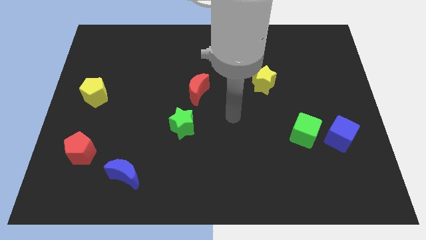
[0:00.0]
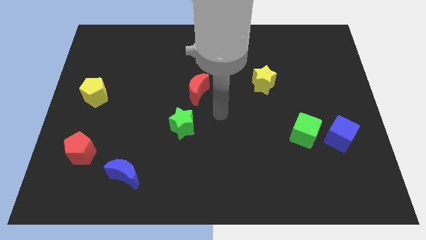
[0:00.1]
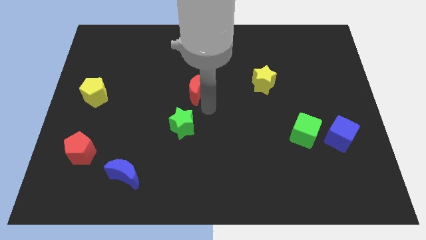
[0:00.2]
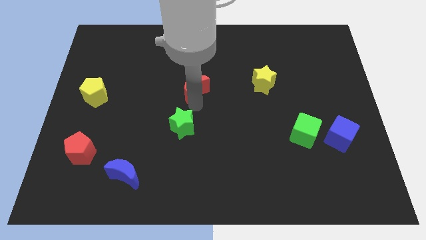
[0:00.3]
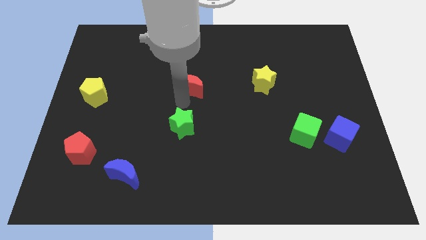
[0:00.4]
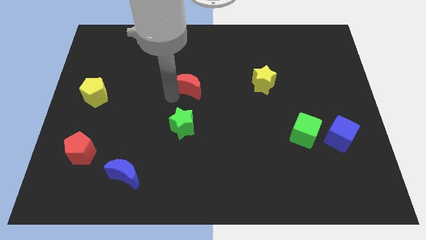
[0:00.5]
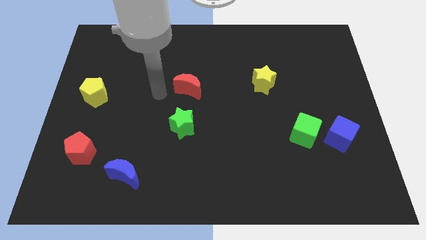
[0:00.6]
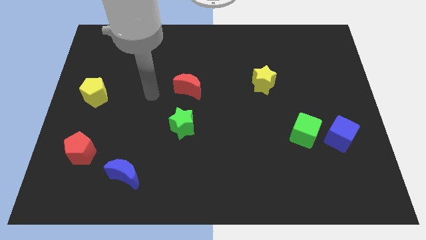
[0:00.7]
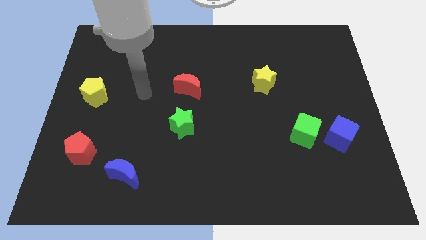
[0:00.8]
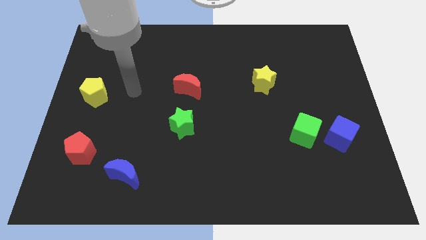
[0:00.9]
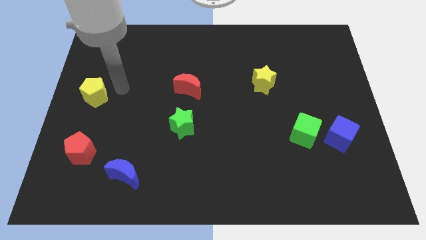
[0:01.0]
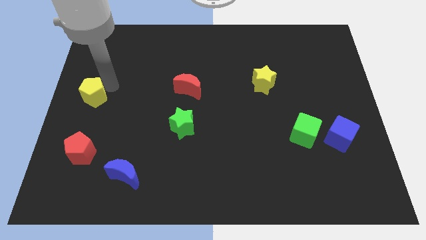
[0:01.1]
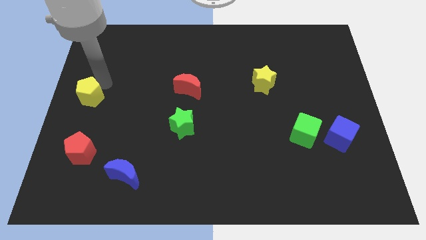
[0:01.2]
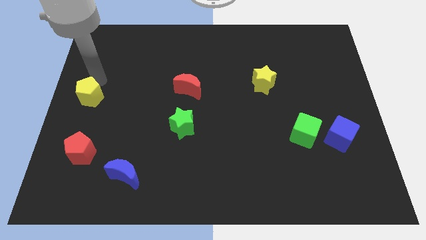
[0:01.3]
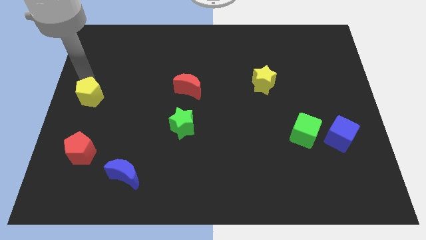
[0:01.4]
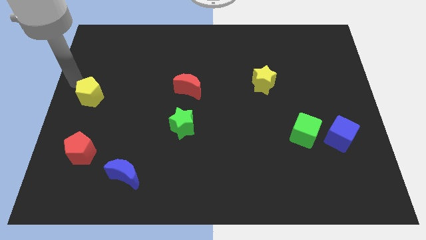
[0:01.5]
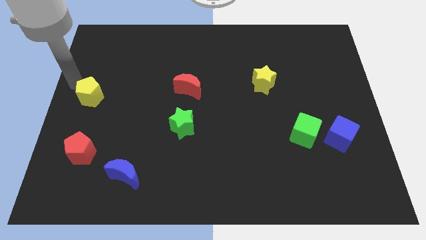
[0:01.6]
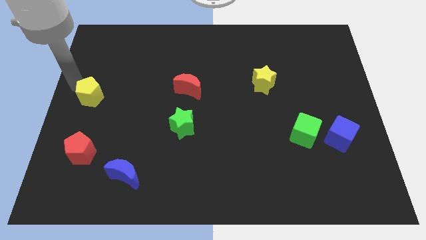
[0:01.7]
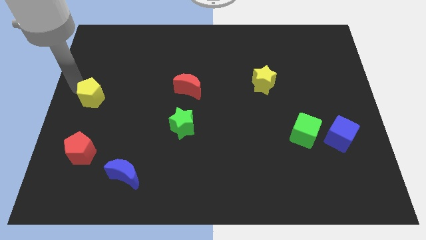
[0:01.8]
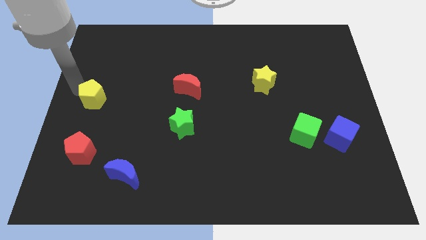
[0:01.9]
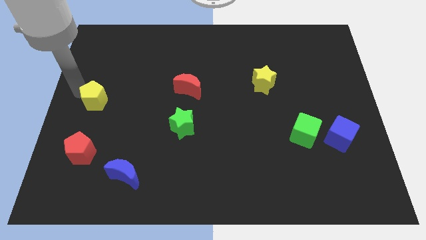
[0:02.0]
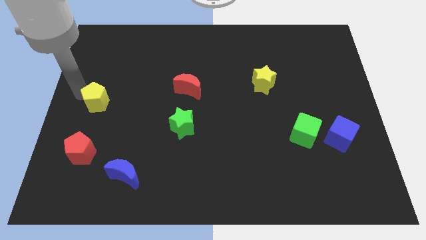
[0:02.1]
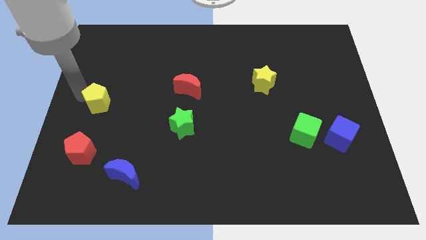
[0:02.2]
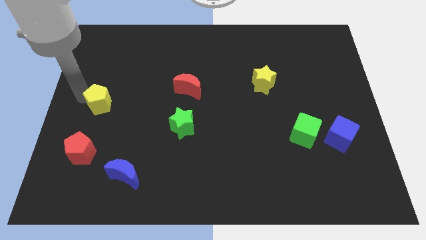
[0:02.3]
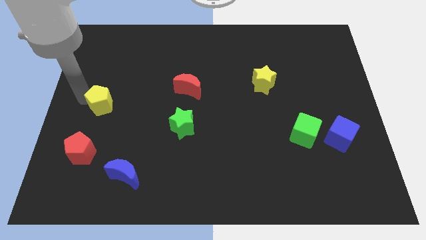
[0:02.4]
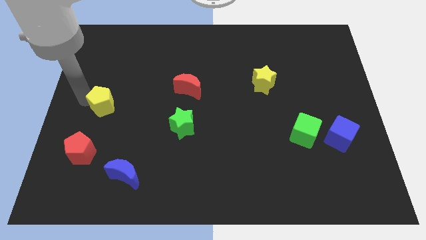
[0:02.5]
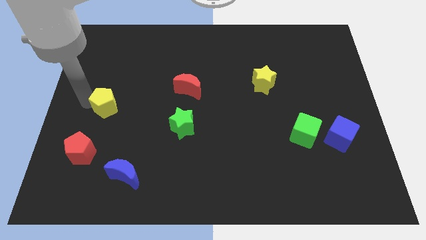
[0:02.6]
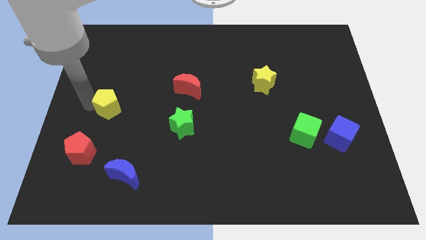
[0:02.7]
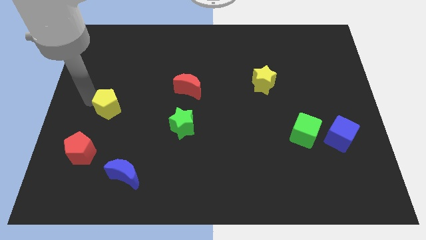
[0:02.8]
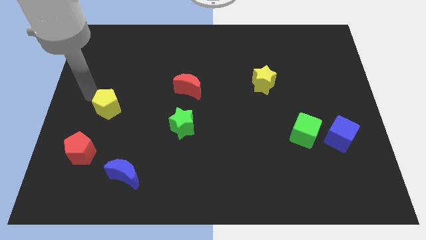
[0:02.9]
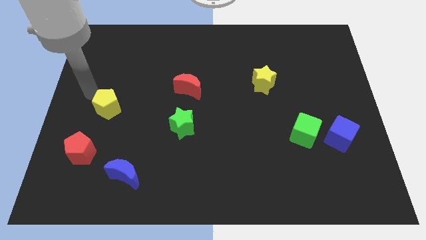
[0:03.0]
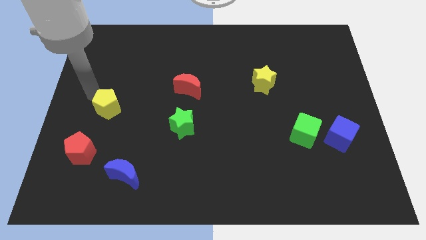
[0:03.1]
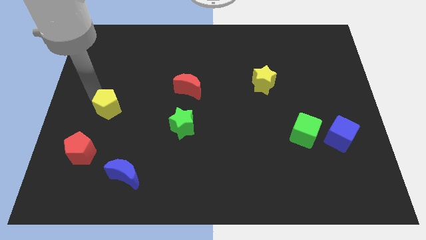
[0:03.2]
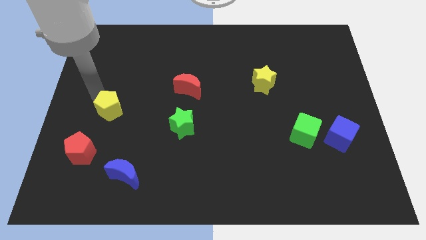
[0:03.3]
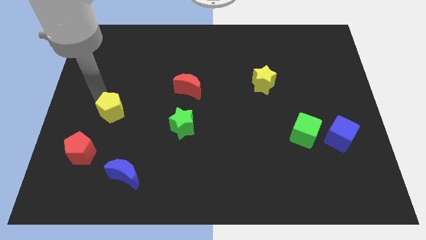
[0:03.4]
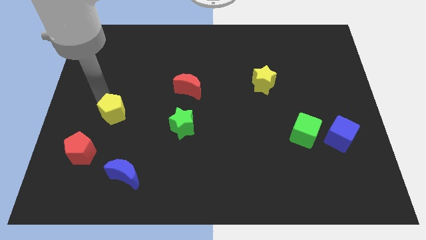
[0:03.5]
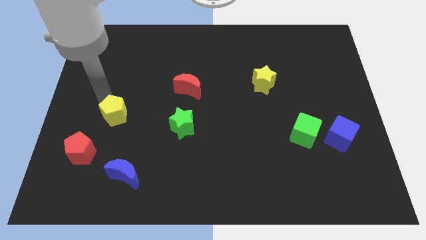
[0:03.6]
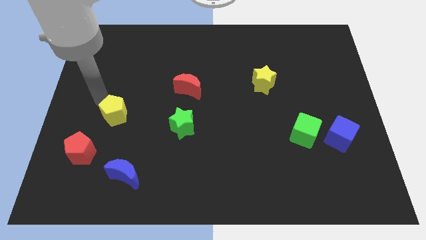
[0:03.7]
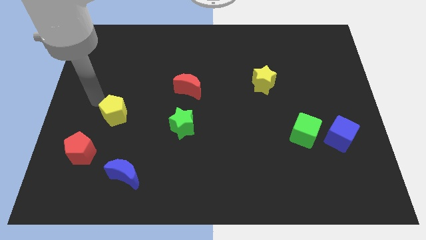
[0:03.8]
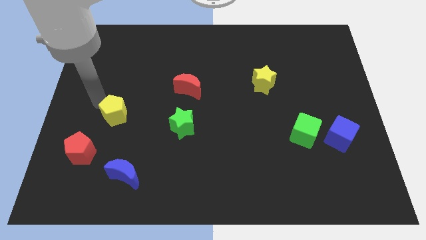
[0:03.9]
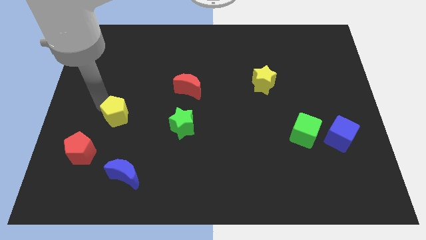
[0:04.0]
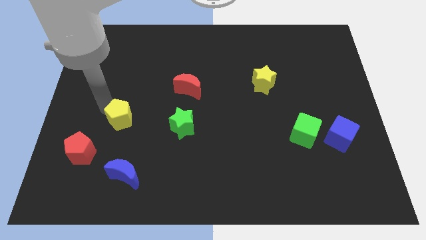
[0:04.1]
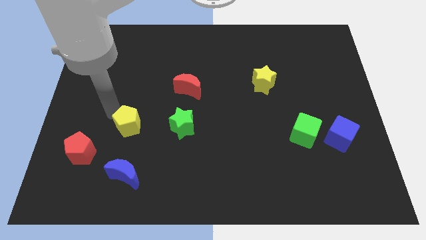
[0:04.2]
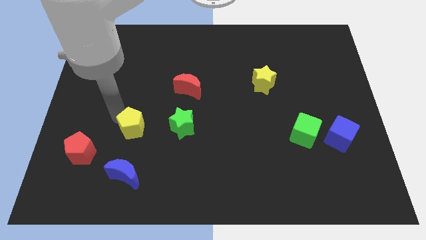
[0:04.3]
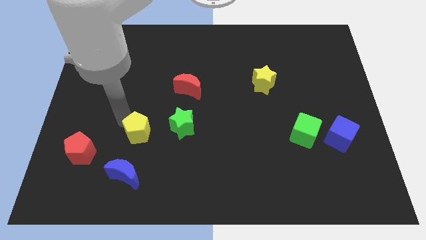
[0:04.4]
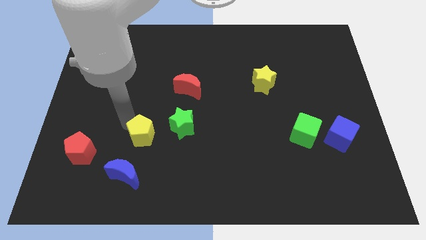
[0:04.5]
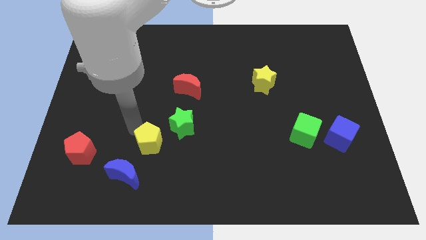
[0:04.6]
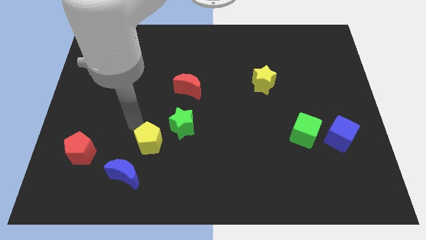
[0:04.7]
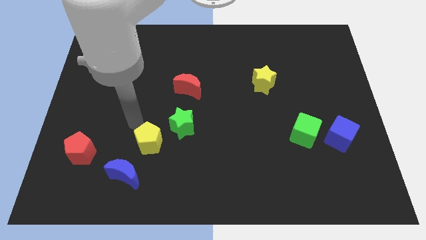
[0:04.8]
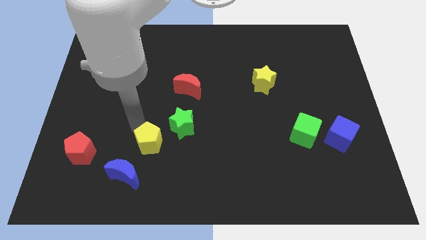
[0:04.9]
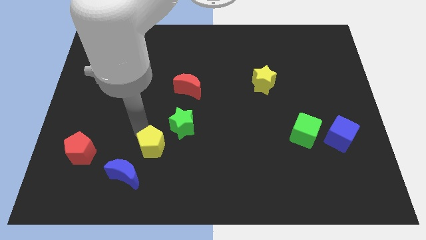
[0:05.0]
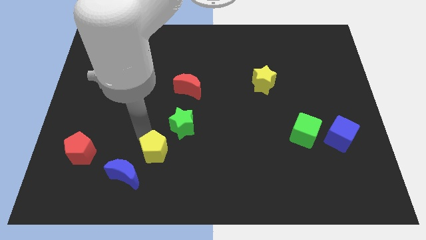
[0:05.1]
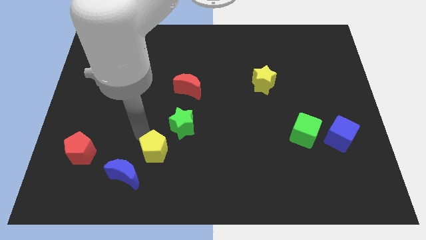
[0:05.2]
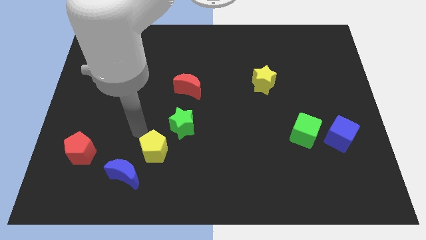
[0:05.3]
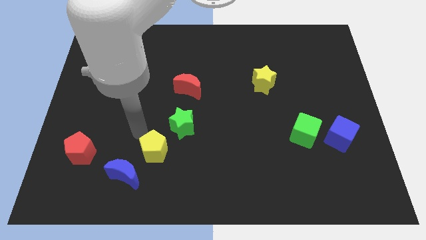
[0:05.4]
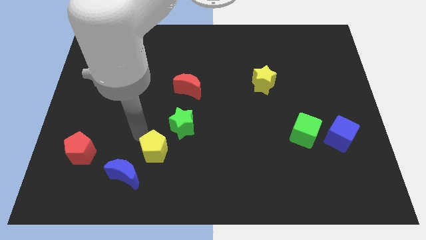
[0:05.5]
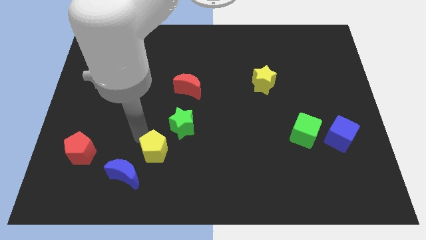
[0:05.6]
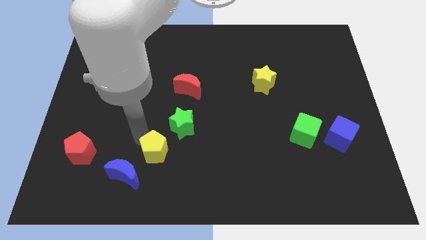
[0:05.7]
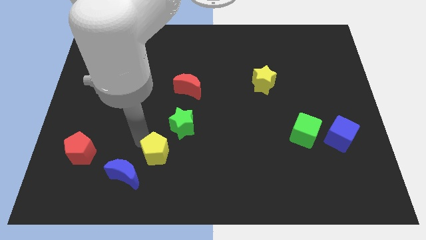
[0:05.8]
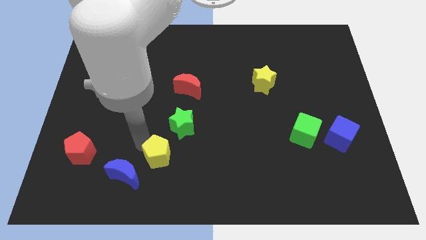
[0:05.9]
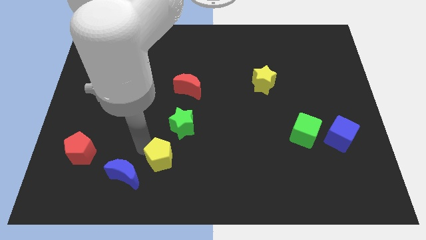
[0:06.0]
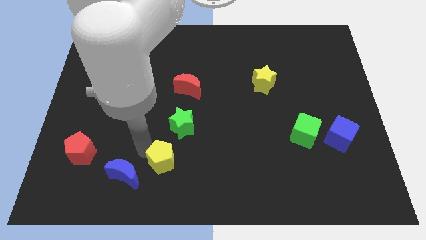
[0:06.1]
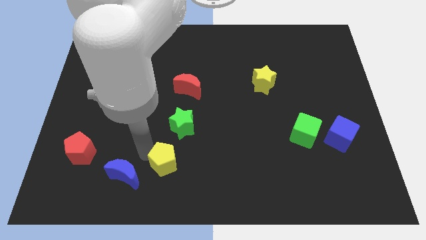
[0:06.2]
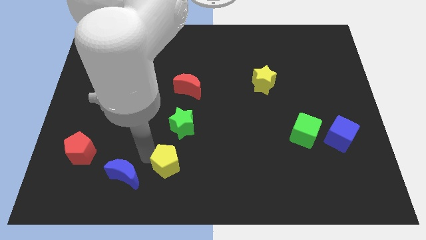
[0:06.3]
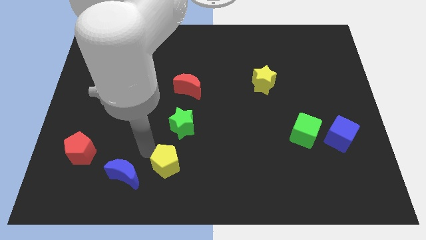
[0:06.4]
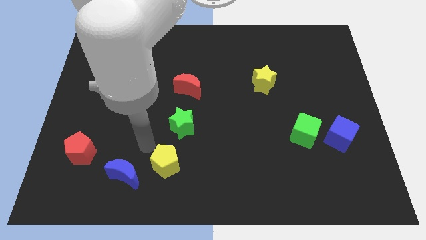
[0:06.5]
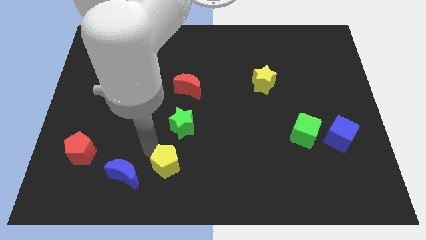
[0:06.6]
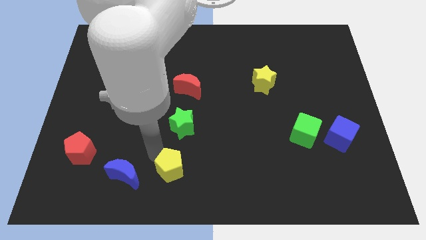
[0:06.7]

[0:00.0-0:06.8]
slide the yellow pentagon to the bottom

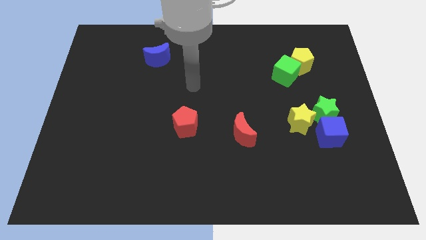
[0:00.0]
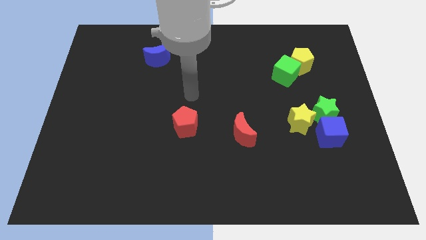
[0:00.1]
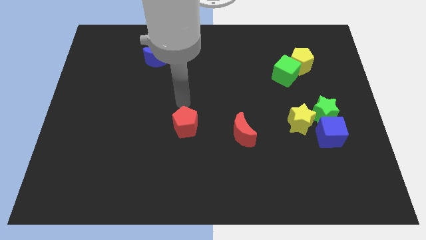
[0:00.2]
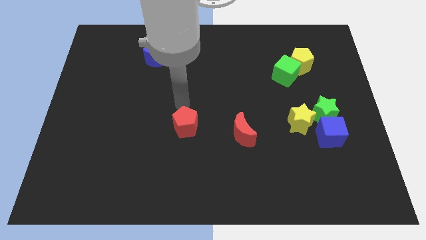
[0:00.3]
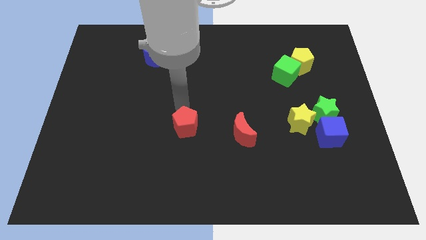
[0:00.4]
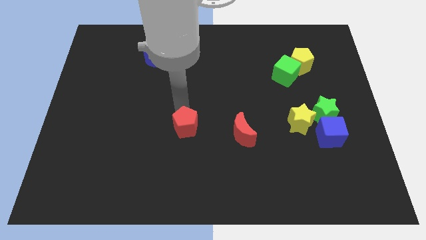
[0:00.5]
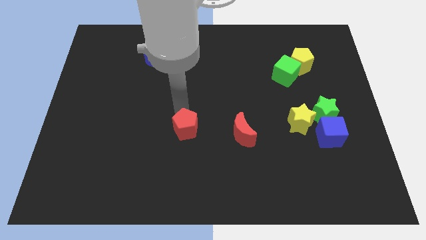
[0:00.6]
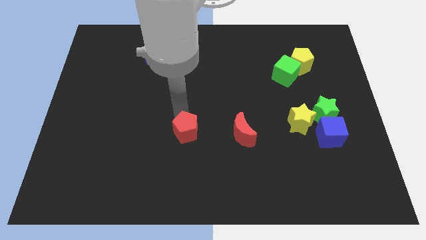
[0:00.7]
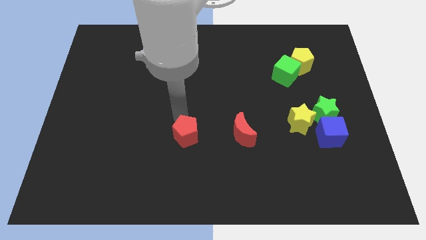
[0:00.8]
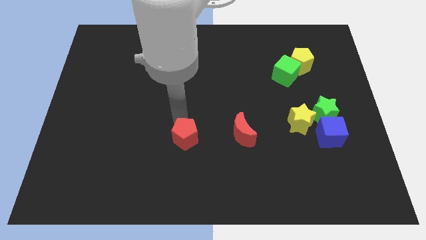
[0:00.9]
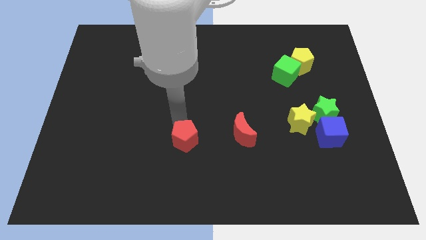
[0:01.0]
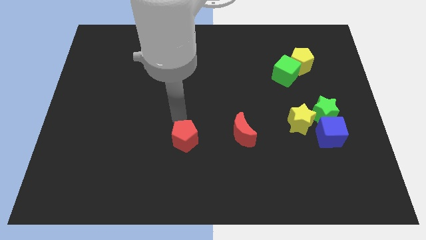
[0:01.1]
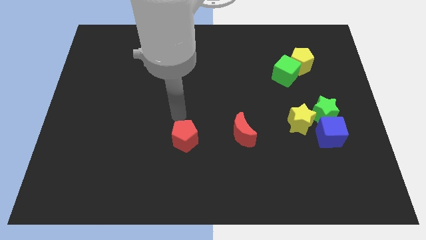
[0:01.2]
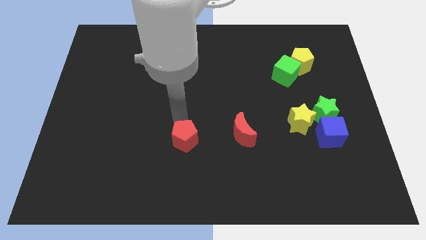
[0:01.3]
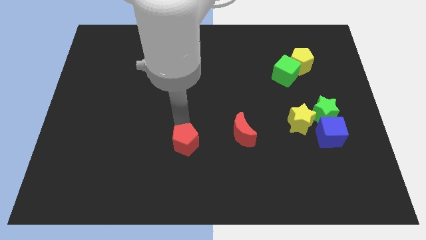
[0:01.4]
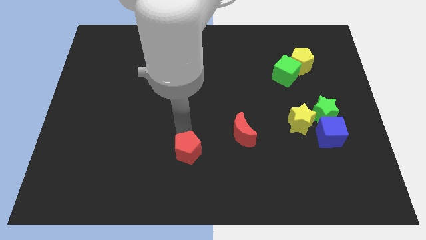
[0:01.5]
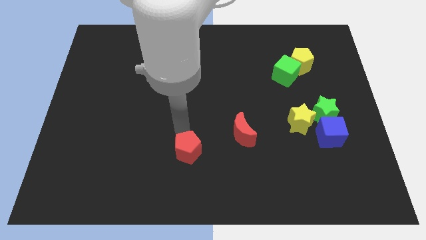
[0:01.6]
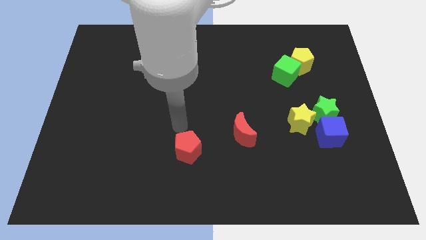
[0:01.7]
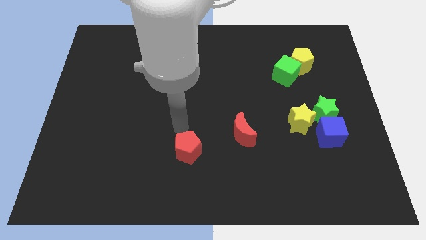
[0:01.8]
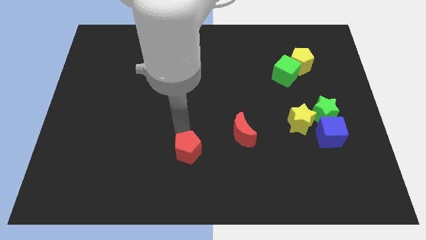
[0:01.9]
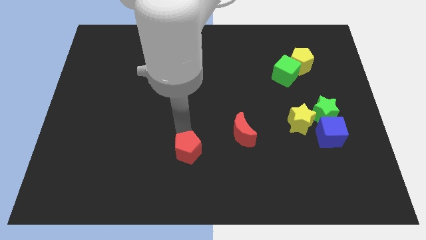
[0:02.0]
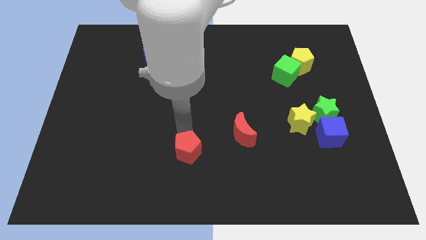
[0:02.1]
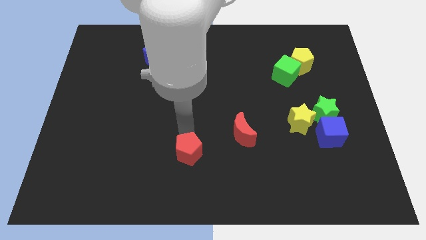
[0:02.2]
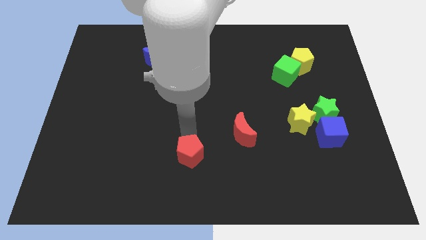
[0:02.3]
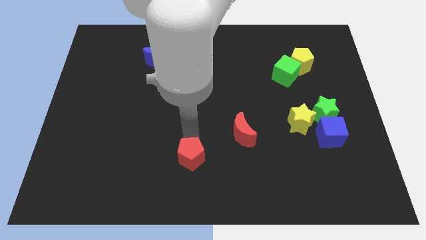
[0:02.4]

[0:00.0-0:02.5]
put the red pentagon to the bottom side
